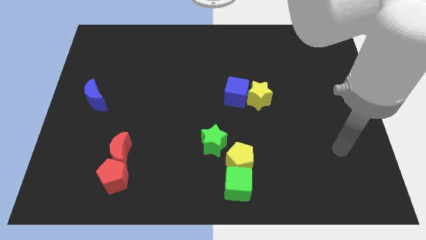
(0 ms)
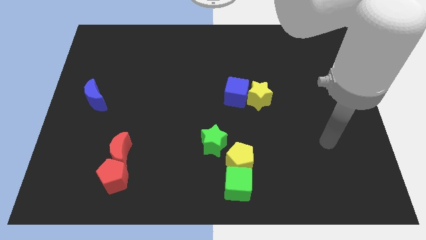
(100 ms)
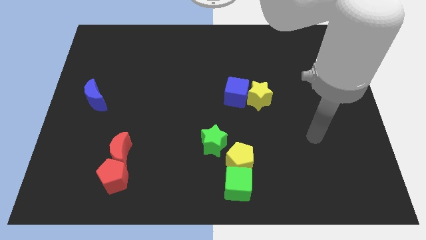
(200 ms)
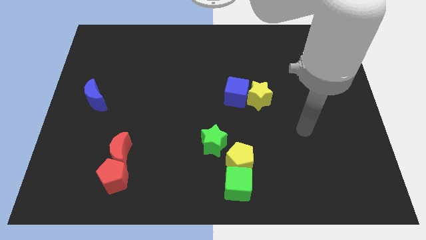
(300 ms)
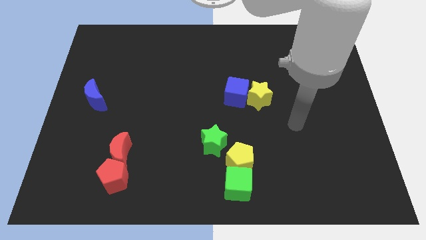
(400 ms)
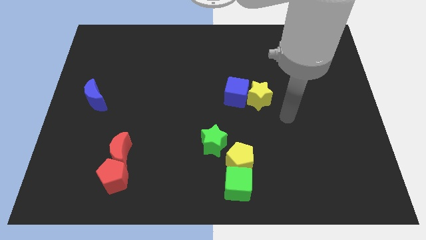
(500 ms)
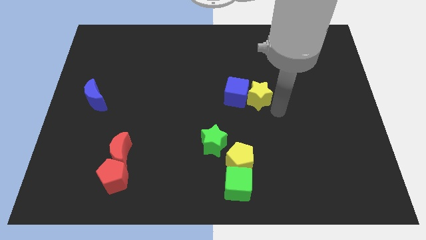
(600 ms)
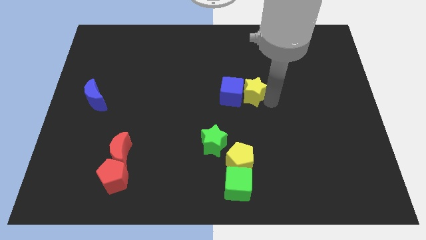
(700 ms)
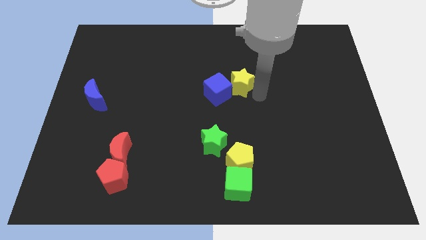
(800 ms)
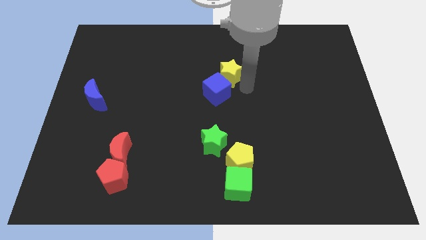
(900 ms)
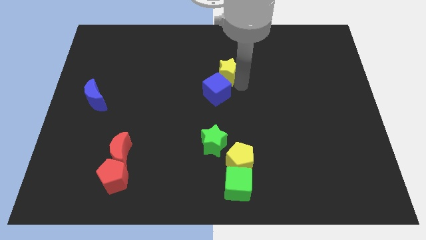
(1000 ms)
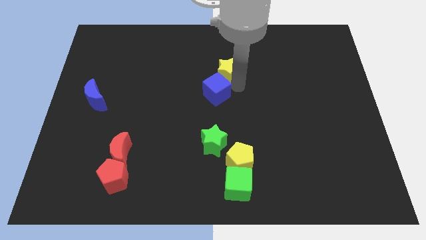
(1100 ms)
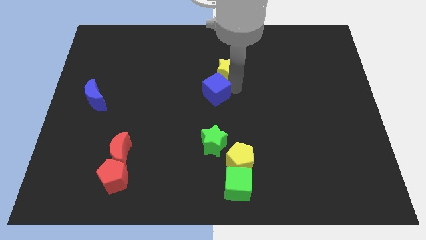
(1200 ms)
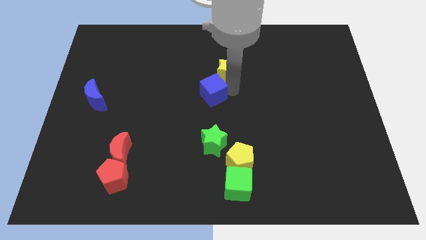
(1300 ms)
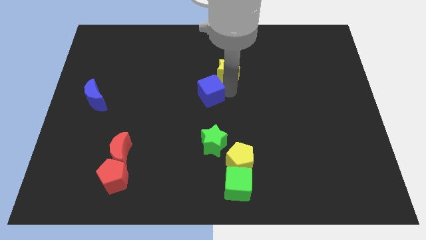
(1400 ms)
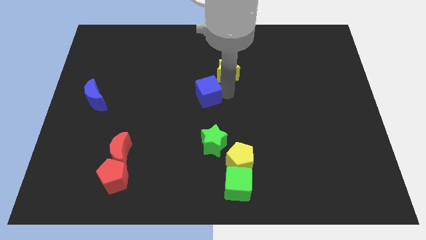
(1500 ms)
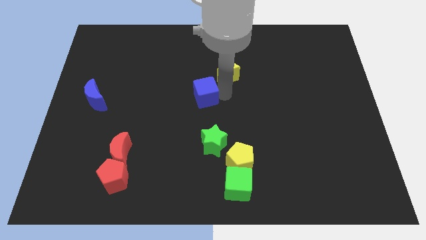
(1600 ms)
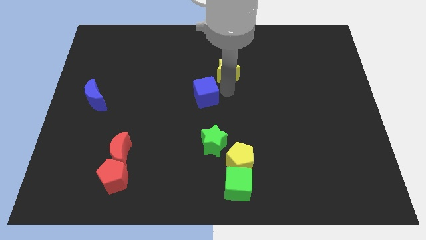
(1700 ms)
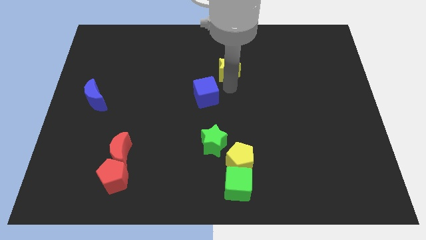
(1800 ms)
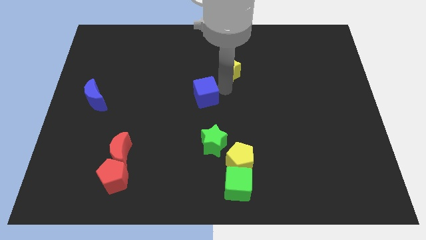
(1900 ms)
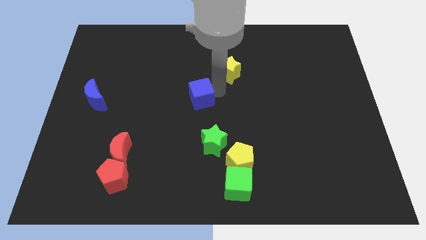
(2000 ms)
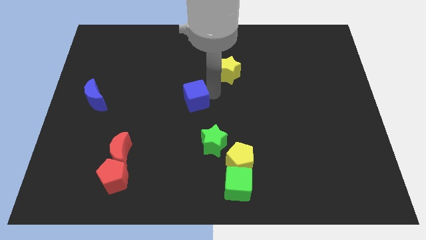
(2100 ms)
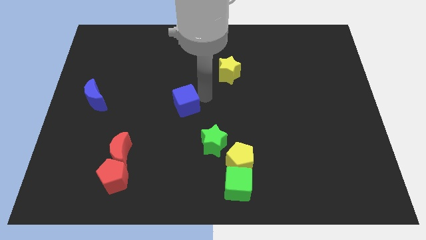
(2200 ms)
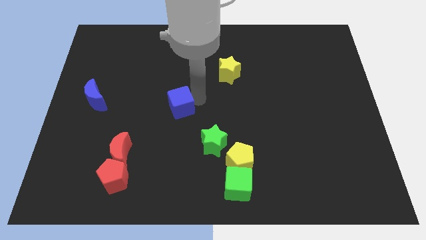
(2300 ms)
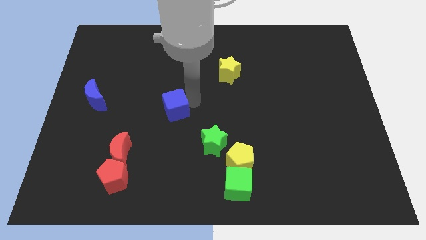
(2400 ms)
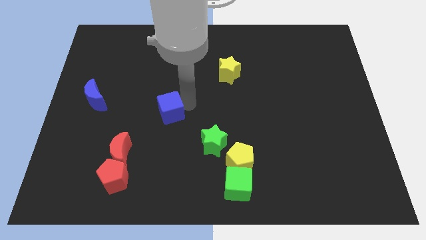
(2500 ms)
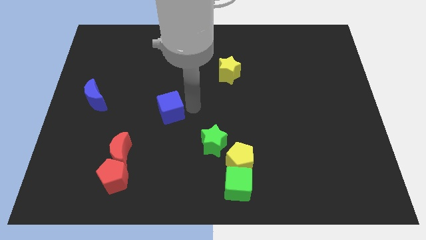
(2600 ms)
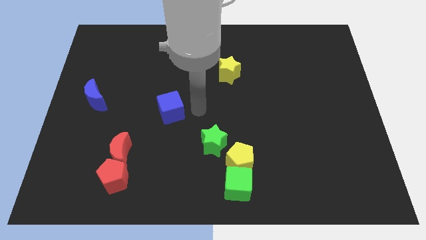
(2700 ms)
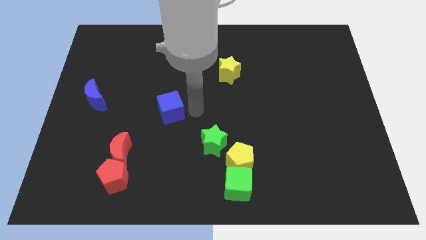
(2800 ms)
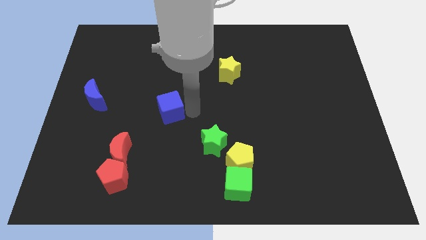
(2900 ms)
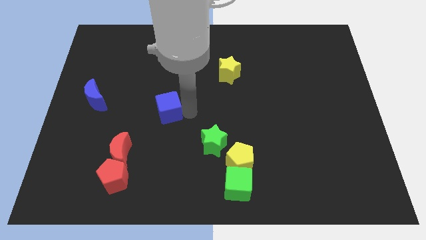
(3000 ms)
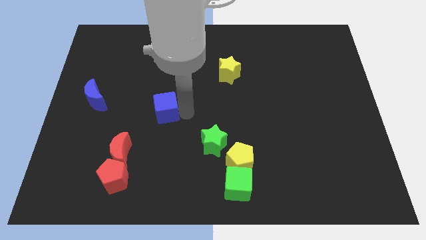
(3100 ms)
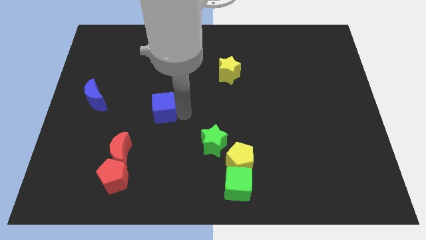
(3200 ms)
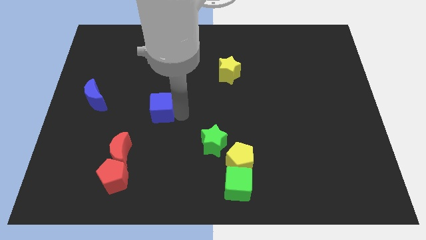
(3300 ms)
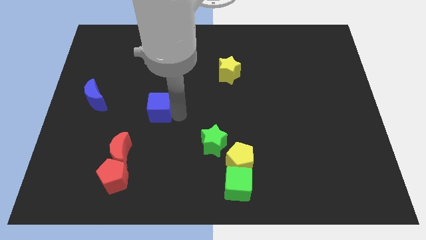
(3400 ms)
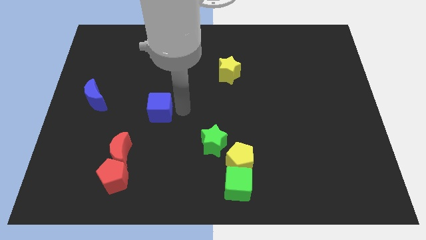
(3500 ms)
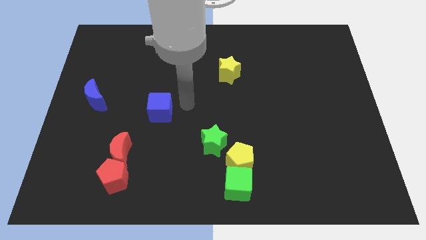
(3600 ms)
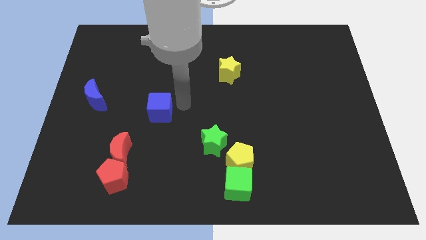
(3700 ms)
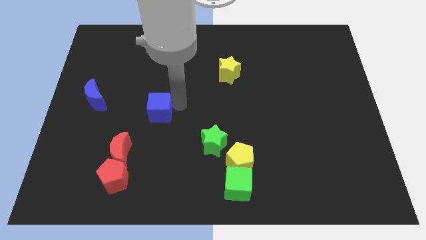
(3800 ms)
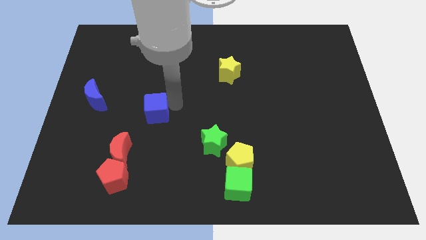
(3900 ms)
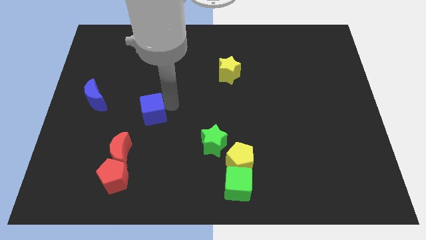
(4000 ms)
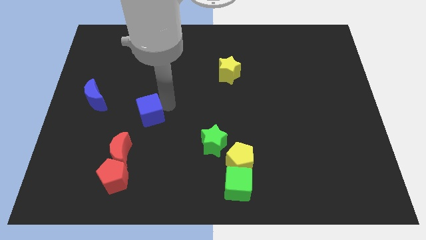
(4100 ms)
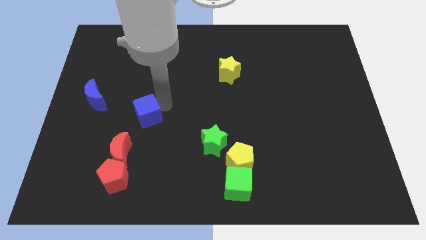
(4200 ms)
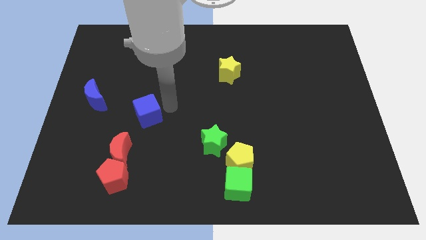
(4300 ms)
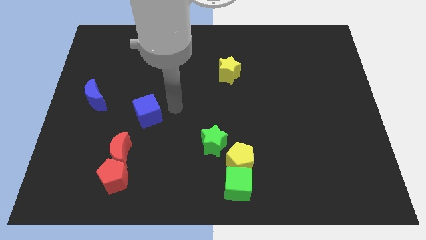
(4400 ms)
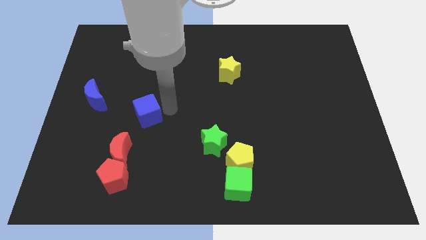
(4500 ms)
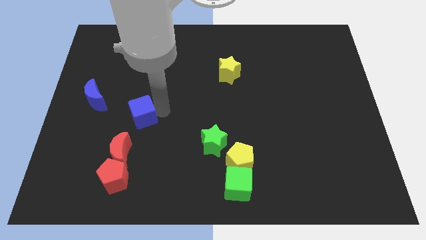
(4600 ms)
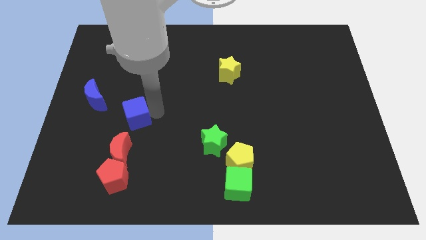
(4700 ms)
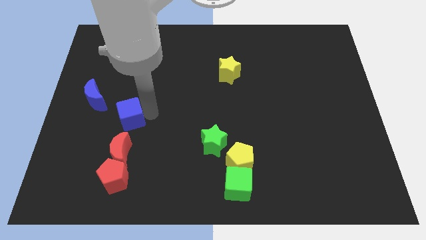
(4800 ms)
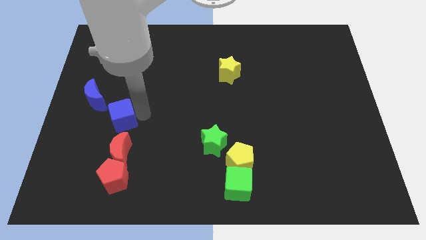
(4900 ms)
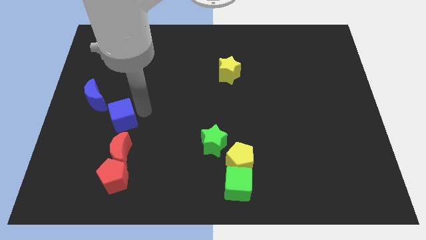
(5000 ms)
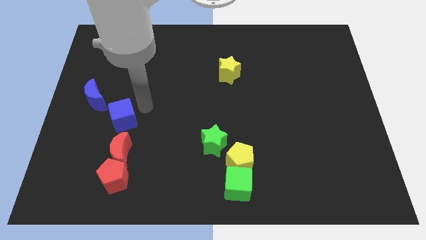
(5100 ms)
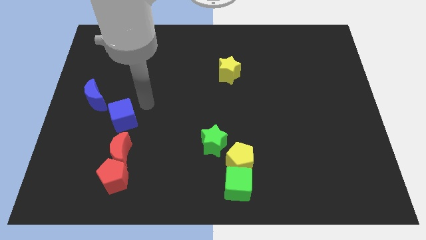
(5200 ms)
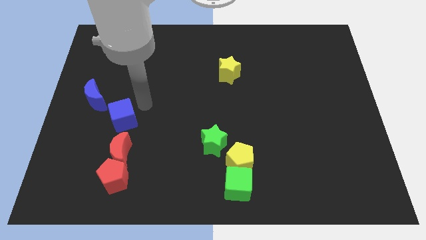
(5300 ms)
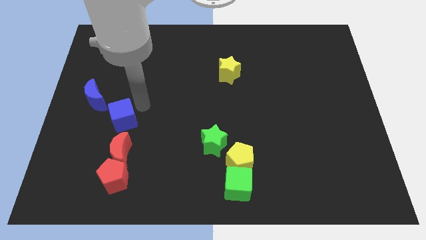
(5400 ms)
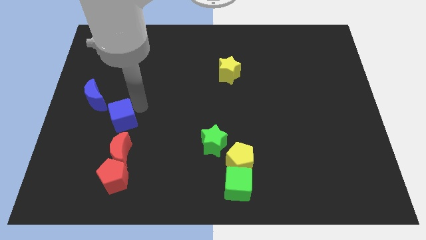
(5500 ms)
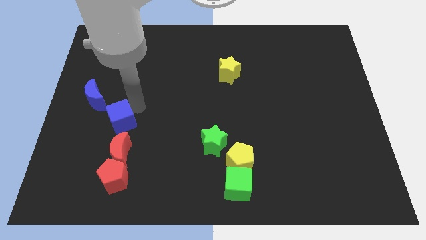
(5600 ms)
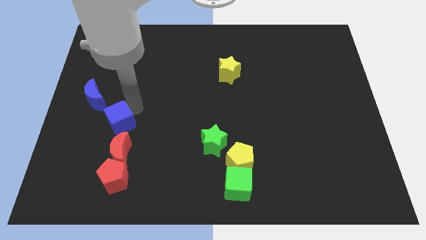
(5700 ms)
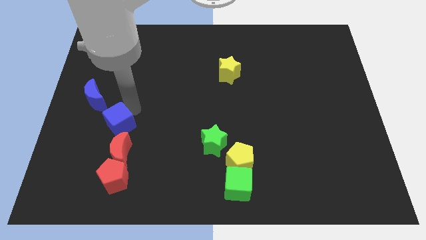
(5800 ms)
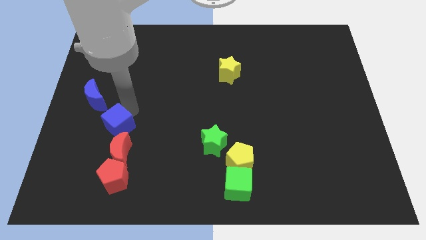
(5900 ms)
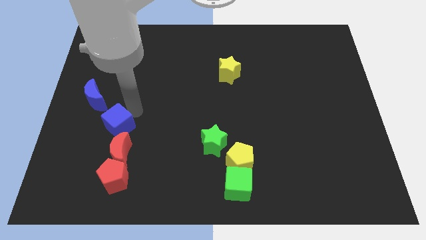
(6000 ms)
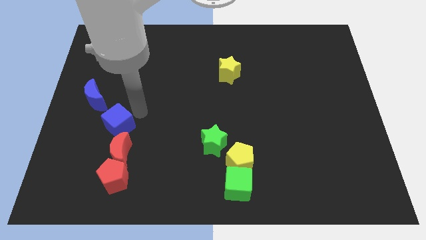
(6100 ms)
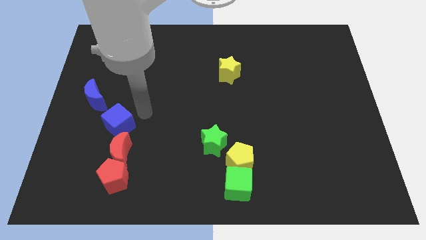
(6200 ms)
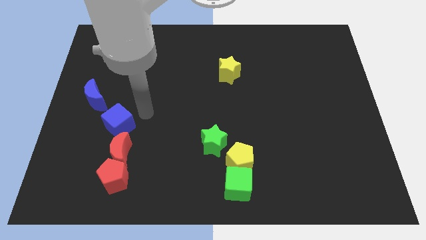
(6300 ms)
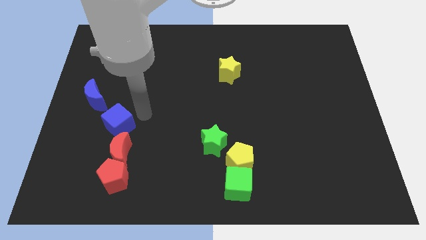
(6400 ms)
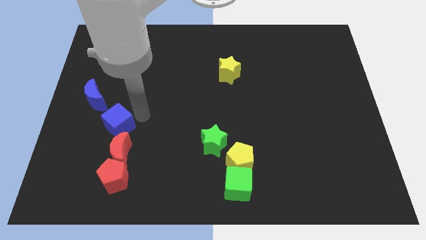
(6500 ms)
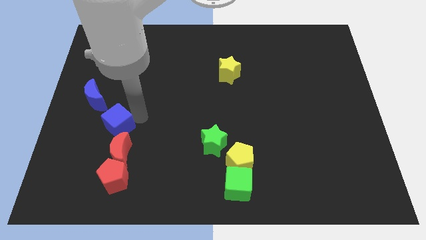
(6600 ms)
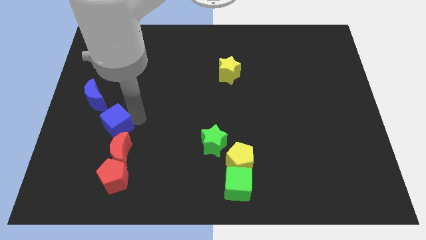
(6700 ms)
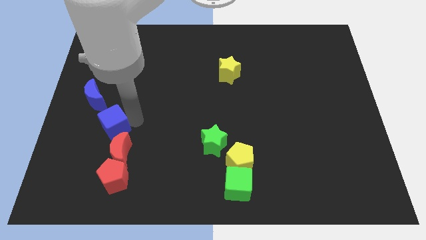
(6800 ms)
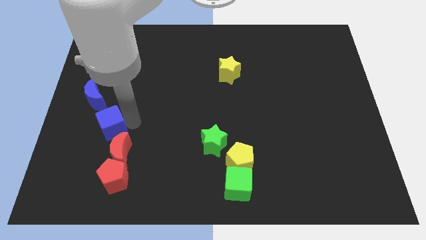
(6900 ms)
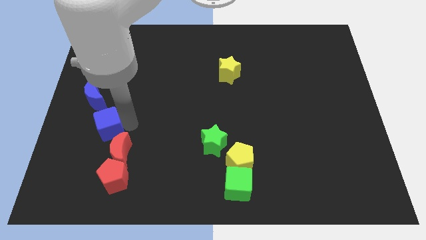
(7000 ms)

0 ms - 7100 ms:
move the blue cube to the bottom side of the blue moon
